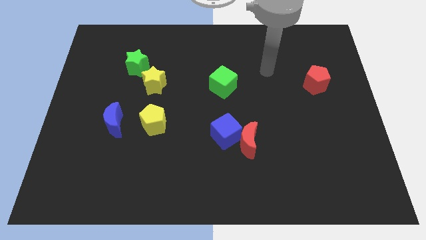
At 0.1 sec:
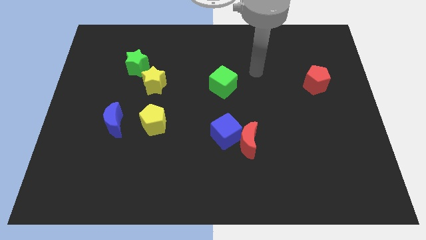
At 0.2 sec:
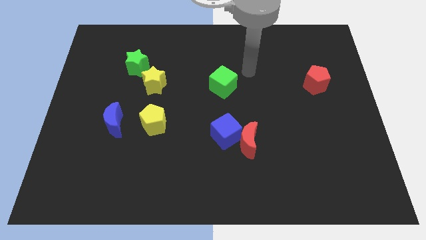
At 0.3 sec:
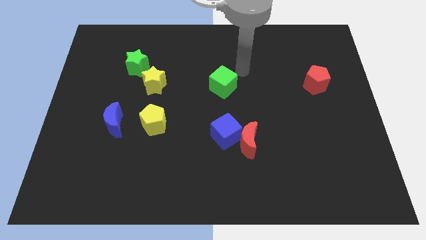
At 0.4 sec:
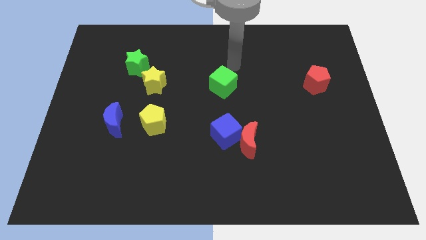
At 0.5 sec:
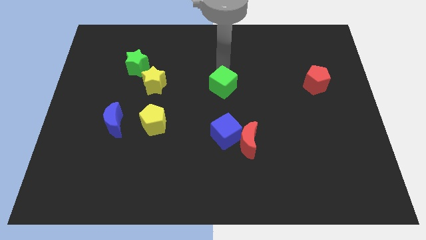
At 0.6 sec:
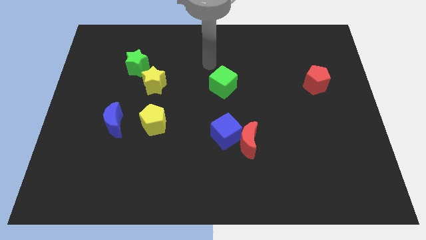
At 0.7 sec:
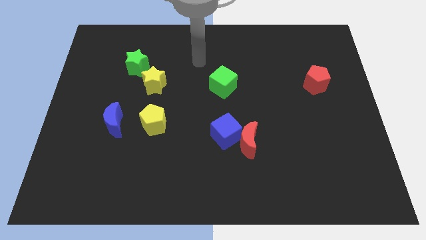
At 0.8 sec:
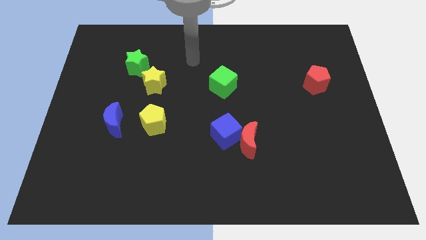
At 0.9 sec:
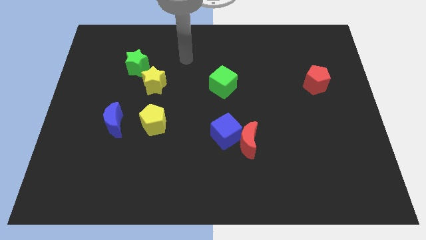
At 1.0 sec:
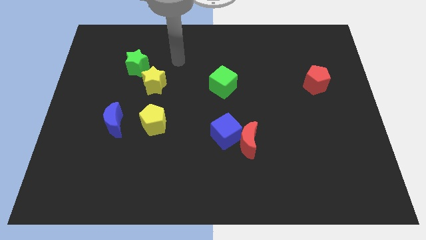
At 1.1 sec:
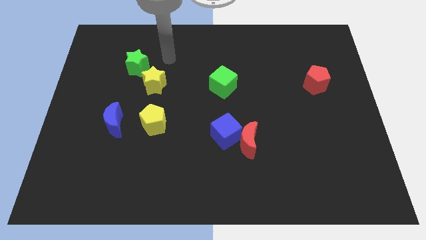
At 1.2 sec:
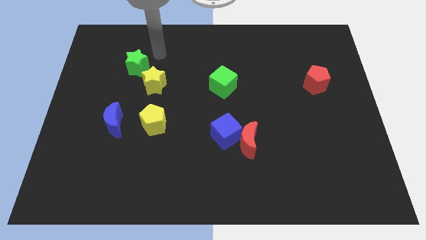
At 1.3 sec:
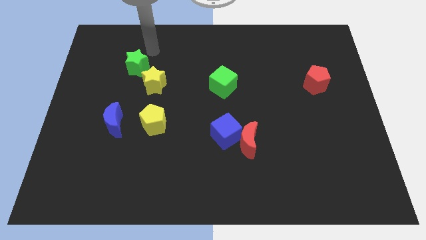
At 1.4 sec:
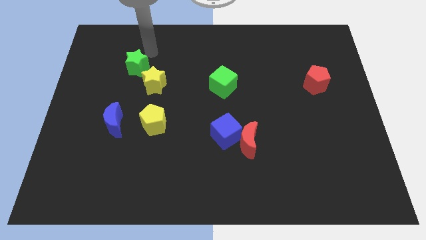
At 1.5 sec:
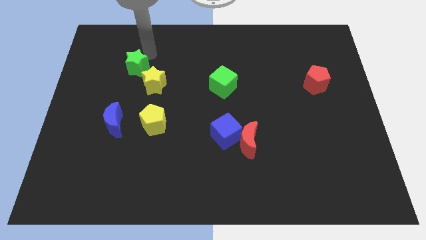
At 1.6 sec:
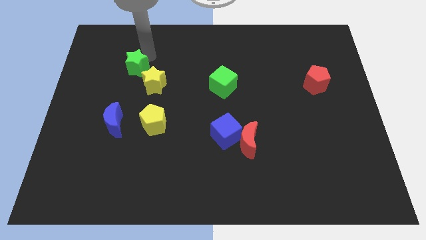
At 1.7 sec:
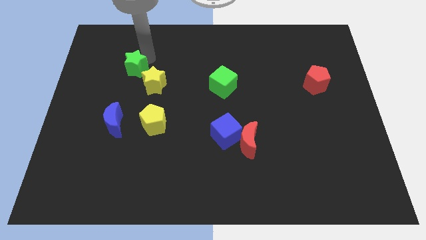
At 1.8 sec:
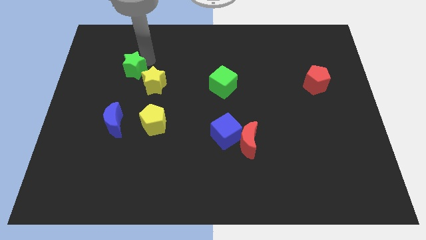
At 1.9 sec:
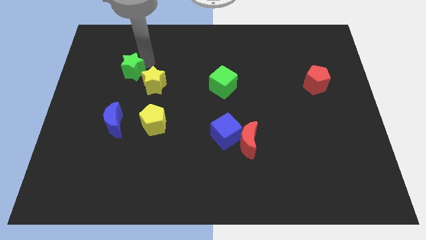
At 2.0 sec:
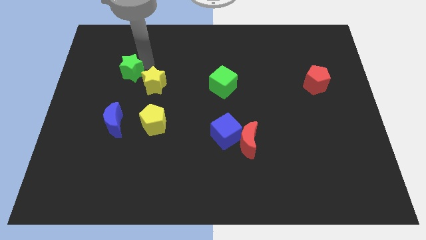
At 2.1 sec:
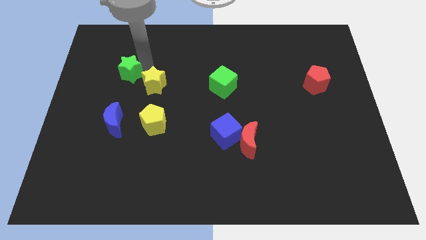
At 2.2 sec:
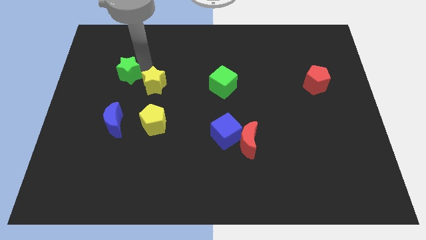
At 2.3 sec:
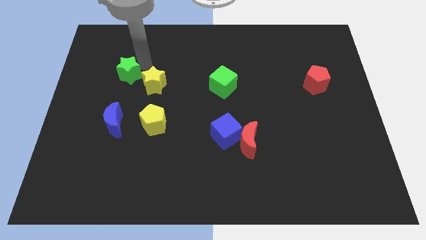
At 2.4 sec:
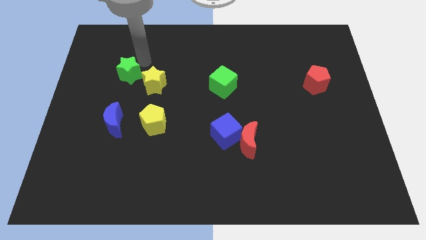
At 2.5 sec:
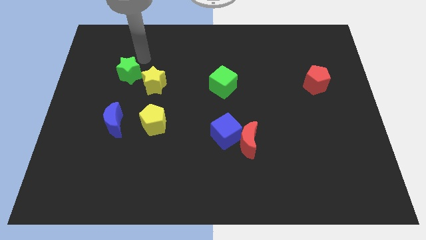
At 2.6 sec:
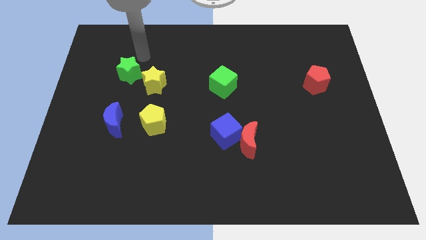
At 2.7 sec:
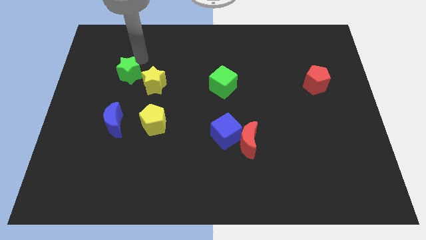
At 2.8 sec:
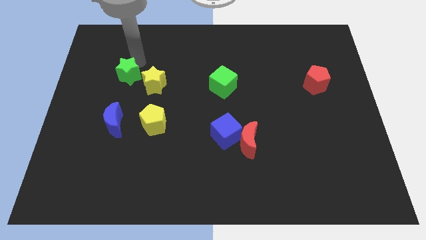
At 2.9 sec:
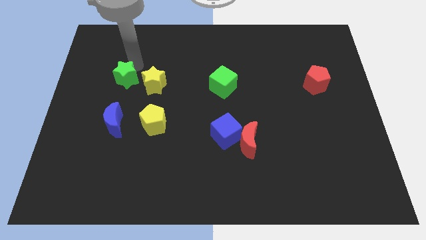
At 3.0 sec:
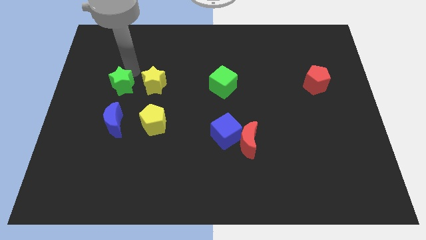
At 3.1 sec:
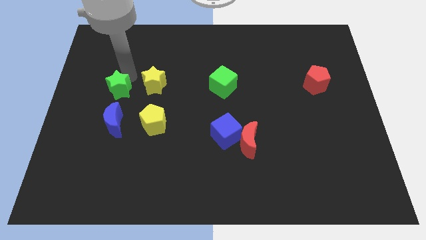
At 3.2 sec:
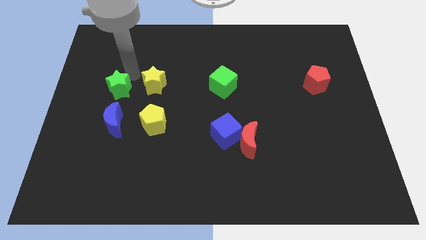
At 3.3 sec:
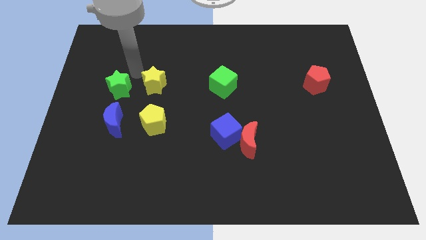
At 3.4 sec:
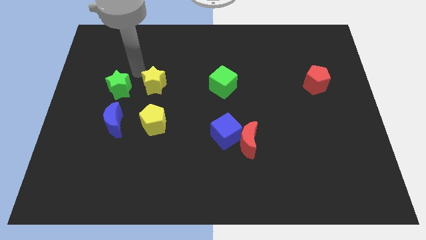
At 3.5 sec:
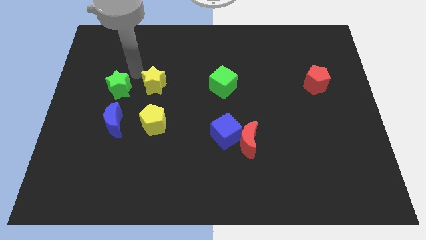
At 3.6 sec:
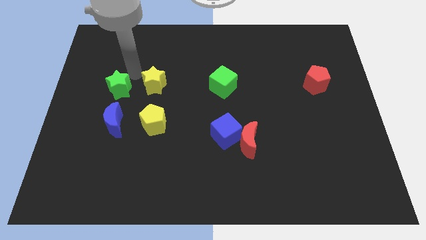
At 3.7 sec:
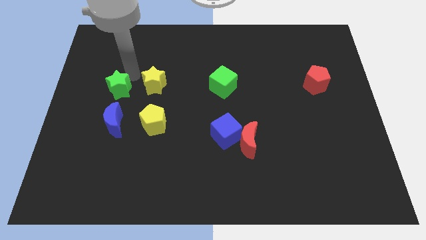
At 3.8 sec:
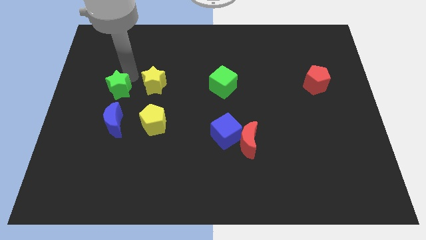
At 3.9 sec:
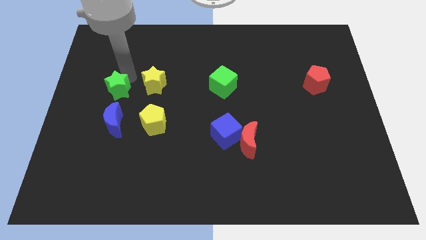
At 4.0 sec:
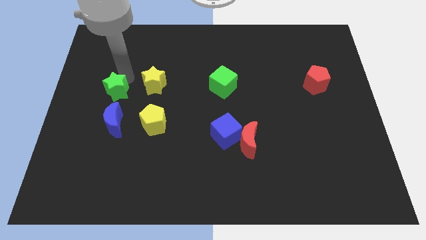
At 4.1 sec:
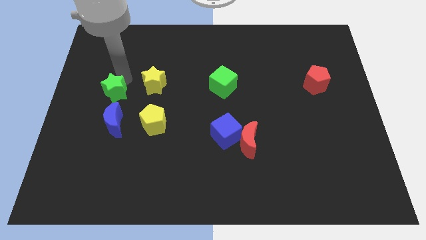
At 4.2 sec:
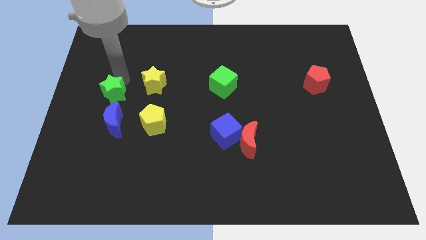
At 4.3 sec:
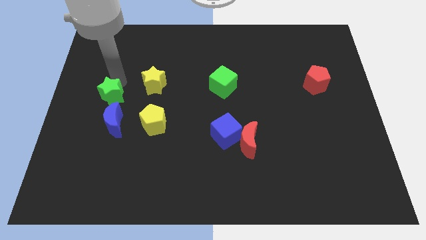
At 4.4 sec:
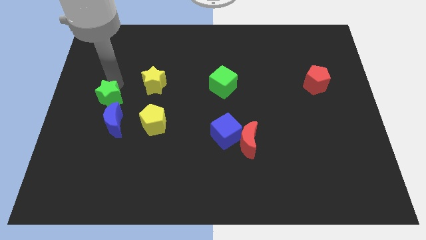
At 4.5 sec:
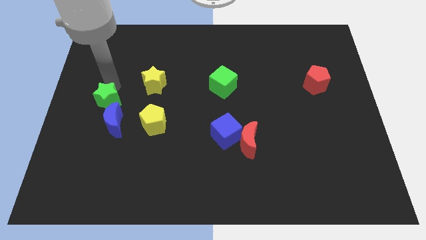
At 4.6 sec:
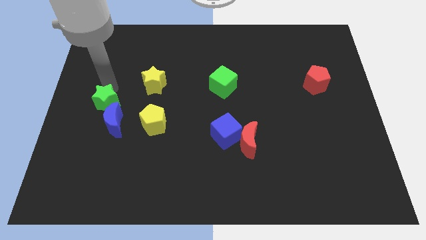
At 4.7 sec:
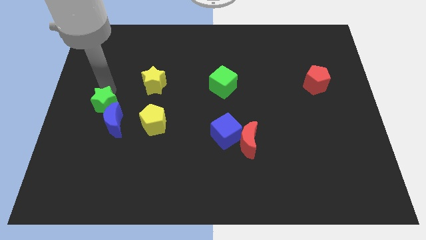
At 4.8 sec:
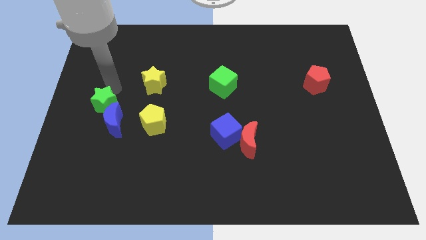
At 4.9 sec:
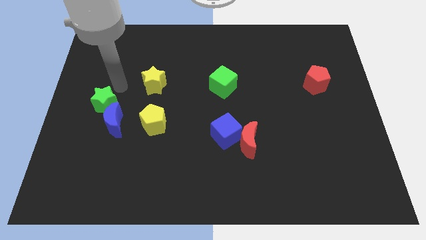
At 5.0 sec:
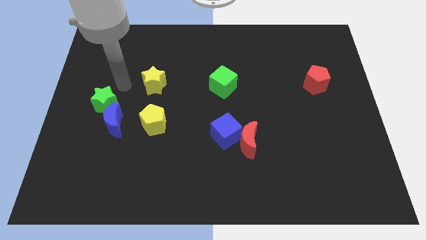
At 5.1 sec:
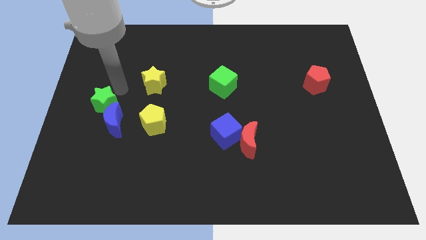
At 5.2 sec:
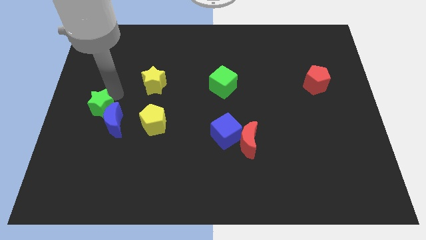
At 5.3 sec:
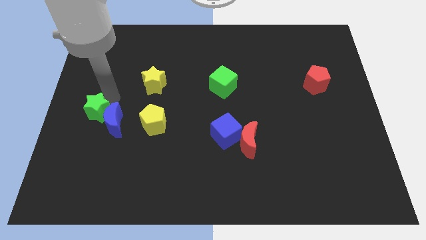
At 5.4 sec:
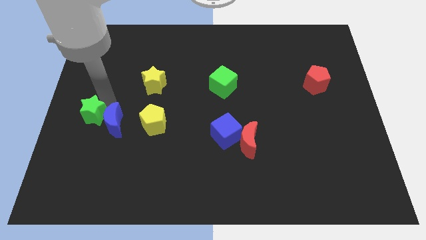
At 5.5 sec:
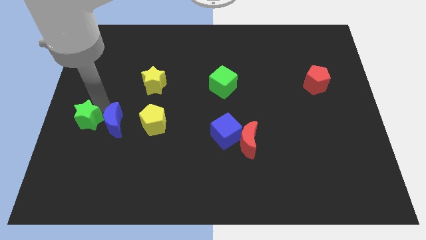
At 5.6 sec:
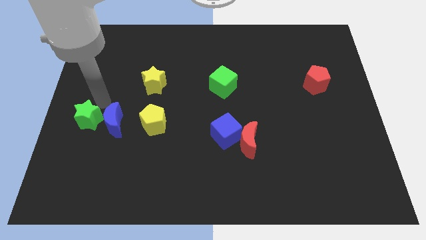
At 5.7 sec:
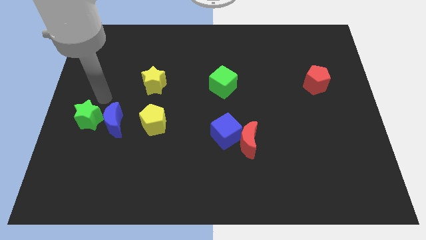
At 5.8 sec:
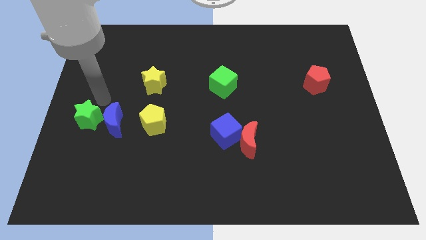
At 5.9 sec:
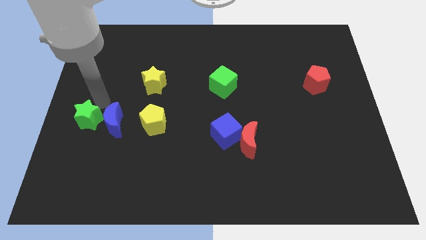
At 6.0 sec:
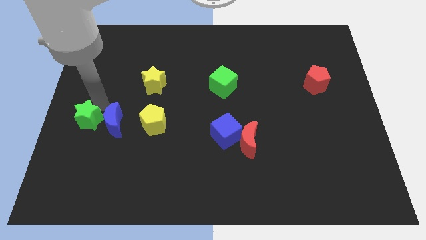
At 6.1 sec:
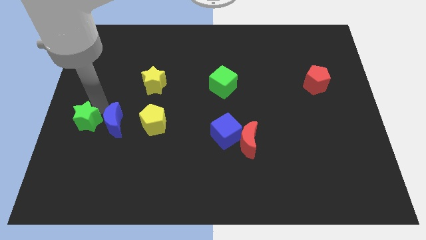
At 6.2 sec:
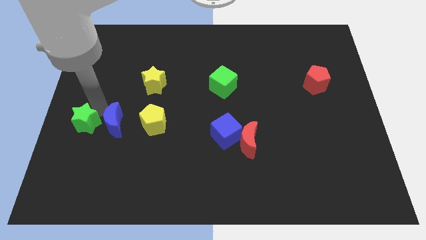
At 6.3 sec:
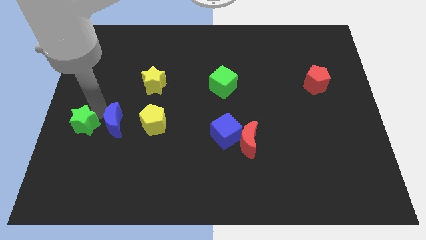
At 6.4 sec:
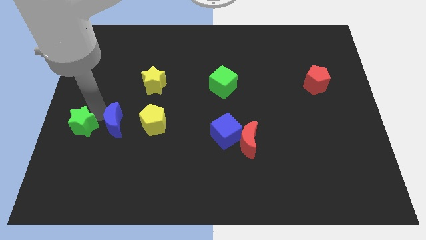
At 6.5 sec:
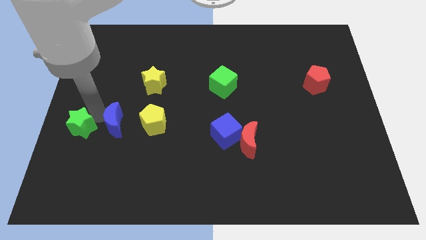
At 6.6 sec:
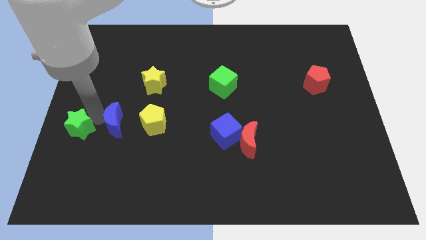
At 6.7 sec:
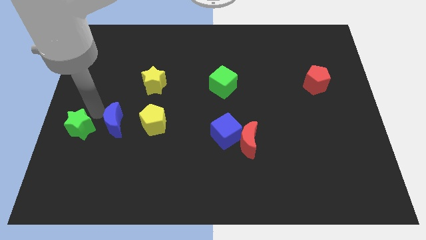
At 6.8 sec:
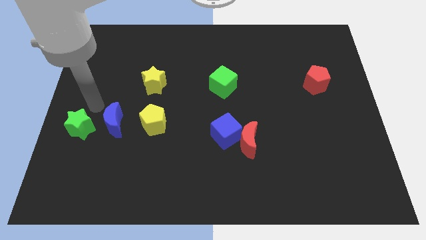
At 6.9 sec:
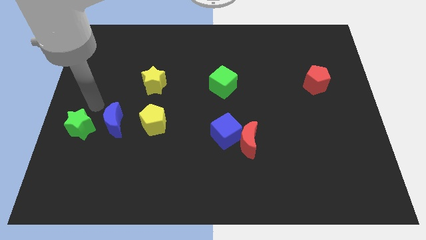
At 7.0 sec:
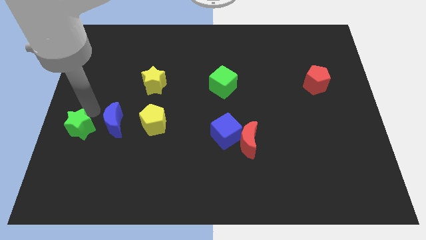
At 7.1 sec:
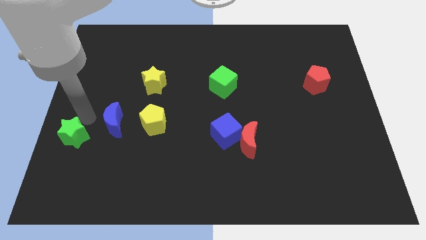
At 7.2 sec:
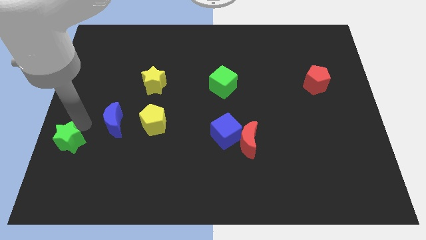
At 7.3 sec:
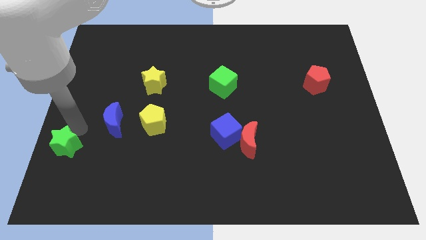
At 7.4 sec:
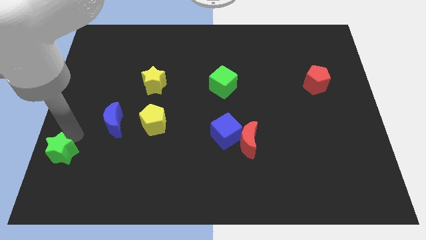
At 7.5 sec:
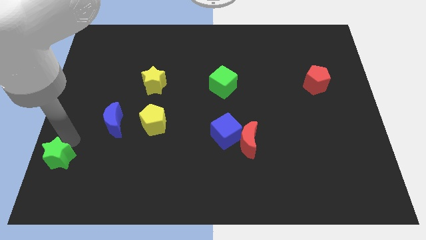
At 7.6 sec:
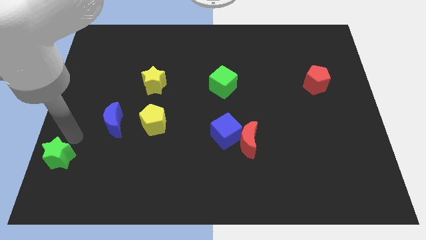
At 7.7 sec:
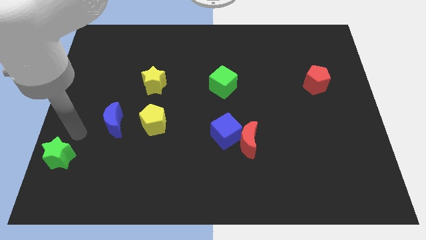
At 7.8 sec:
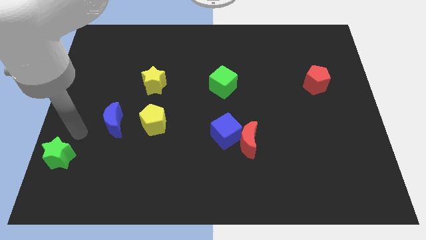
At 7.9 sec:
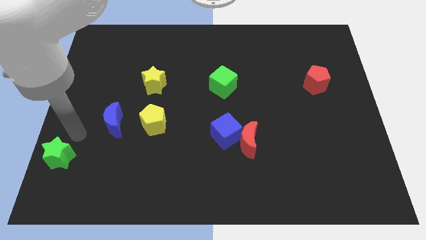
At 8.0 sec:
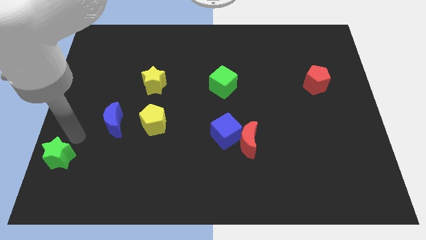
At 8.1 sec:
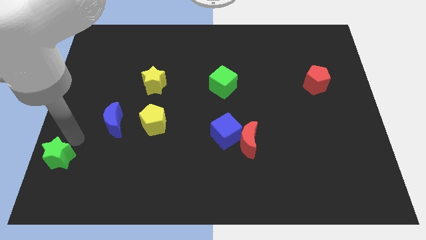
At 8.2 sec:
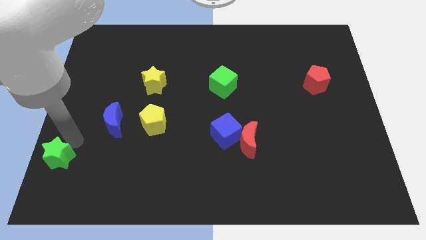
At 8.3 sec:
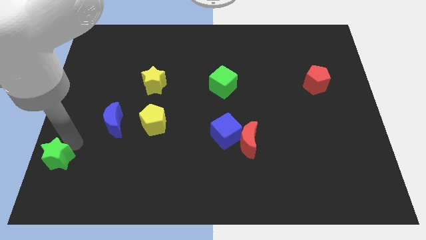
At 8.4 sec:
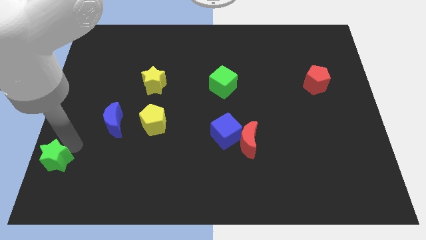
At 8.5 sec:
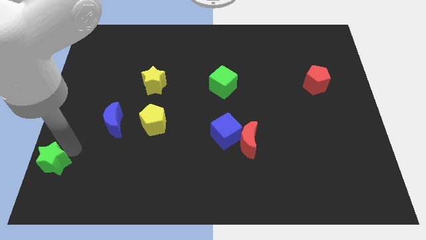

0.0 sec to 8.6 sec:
slide the green star to the bottom left of the board
